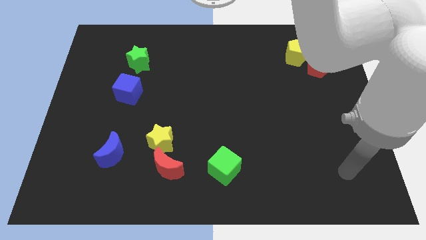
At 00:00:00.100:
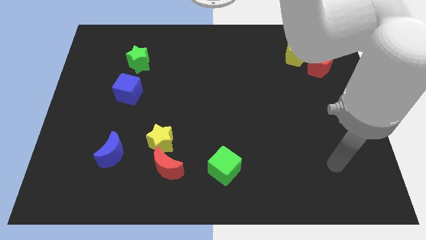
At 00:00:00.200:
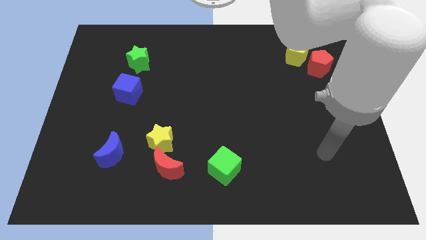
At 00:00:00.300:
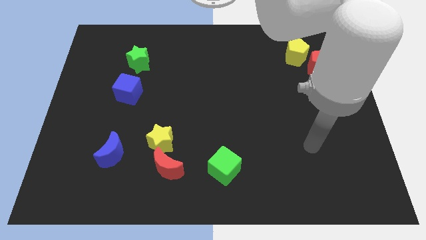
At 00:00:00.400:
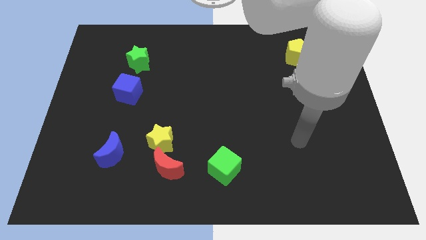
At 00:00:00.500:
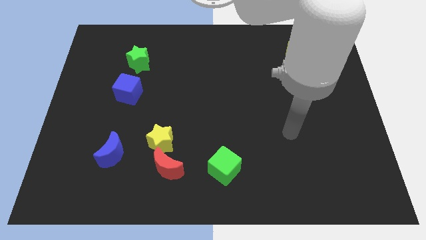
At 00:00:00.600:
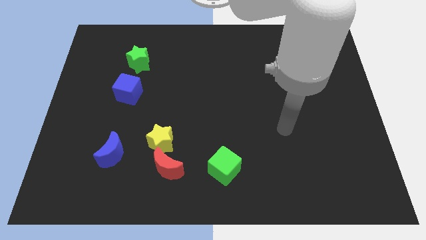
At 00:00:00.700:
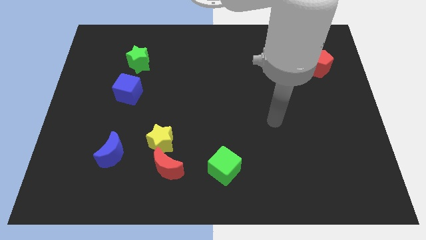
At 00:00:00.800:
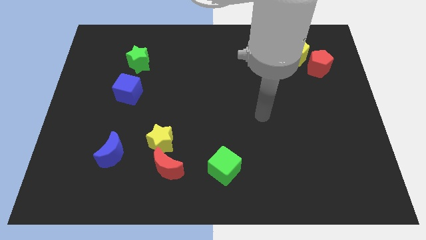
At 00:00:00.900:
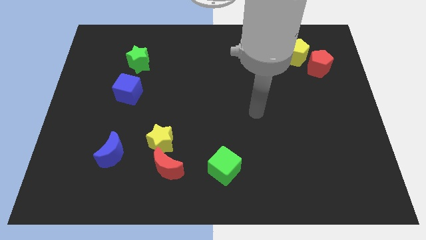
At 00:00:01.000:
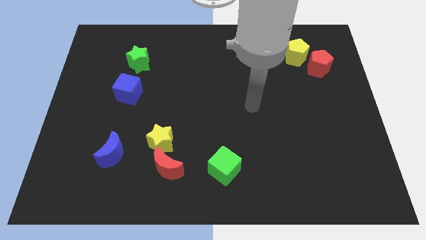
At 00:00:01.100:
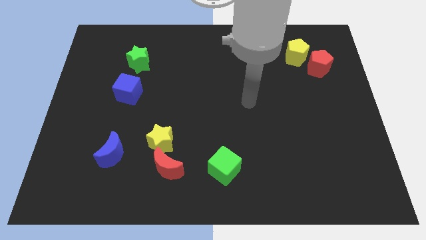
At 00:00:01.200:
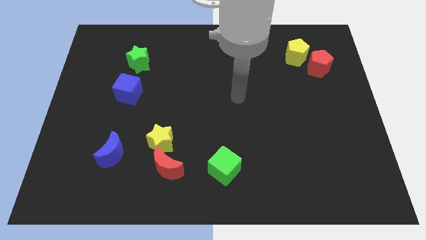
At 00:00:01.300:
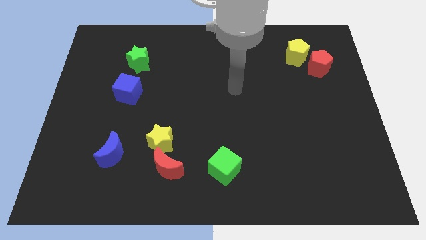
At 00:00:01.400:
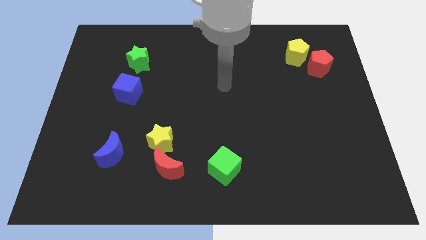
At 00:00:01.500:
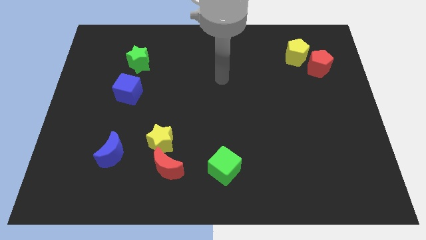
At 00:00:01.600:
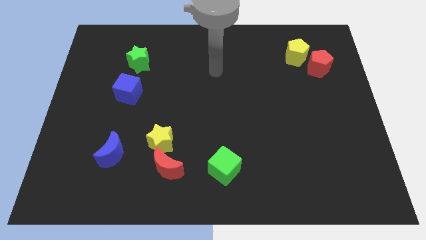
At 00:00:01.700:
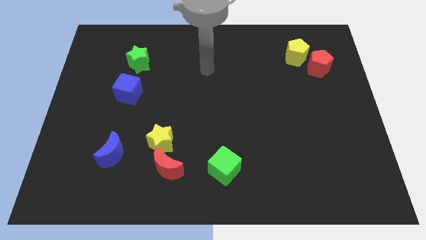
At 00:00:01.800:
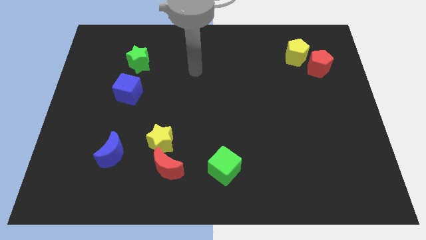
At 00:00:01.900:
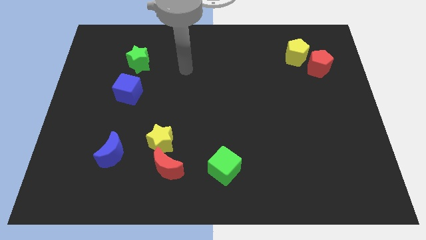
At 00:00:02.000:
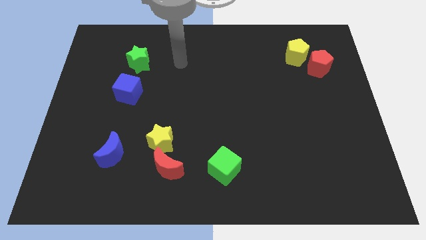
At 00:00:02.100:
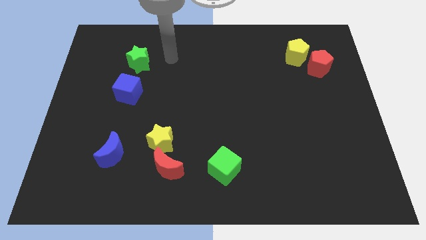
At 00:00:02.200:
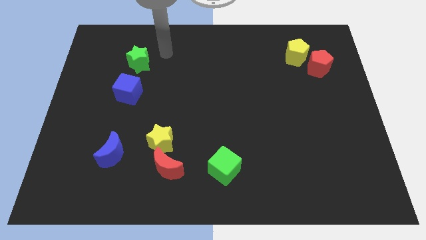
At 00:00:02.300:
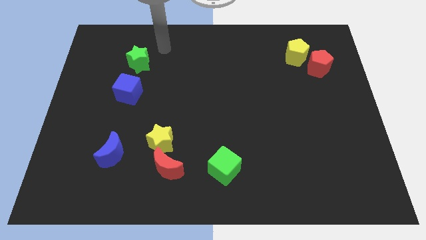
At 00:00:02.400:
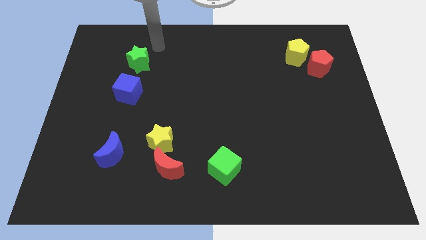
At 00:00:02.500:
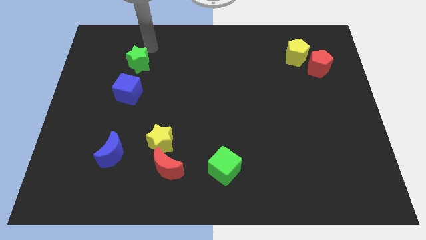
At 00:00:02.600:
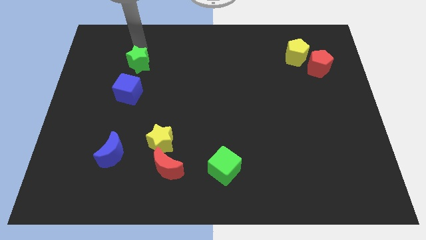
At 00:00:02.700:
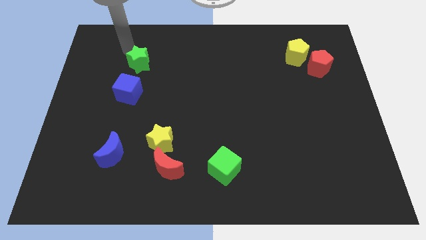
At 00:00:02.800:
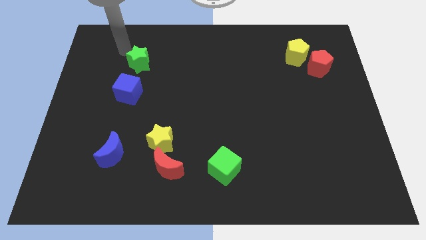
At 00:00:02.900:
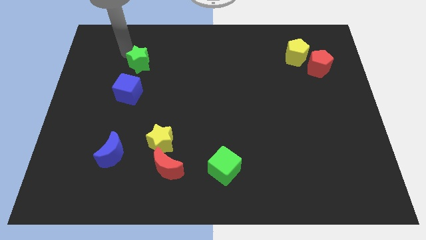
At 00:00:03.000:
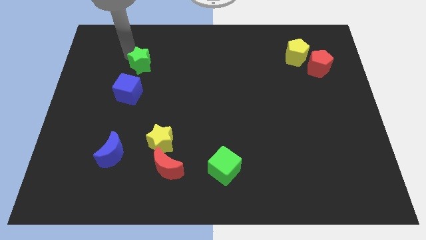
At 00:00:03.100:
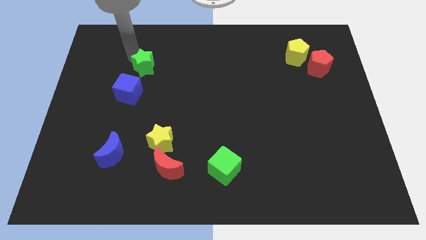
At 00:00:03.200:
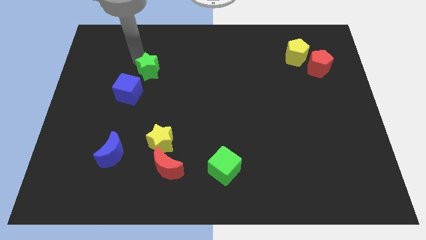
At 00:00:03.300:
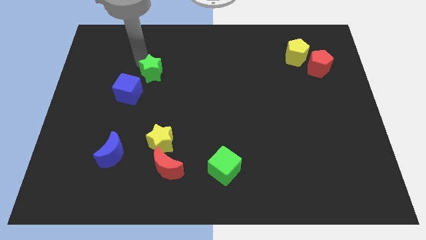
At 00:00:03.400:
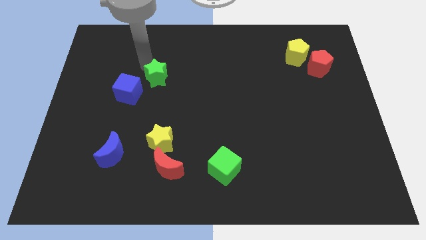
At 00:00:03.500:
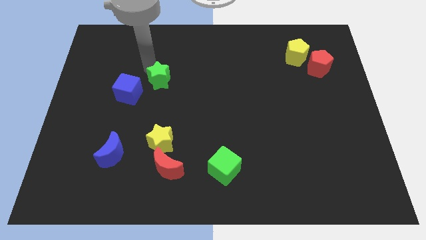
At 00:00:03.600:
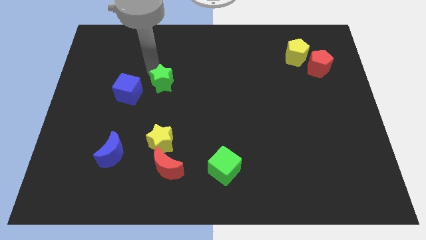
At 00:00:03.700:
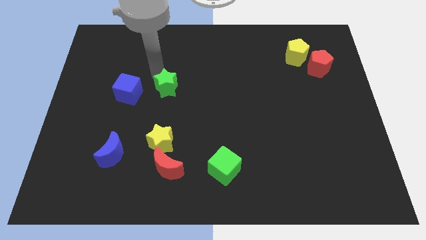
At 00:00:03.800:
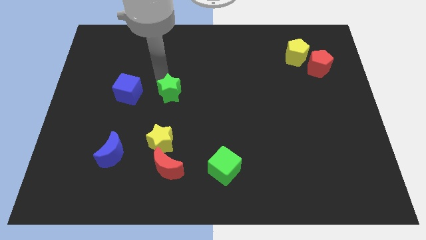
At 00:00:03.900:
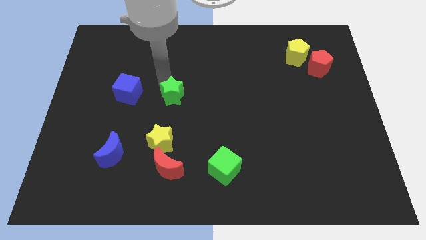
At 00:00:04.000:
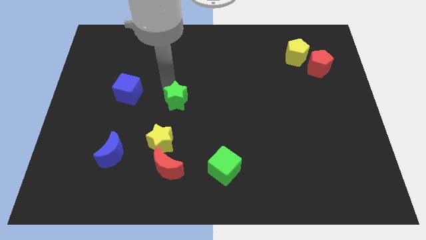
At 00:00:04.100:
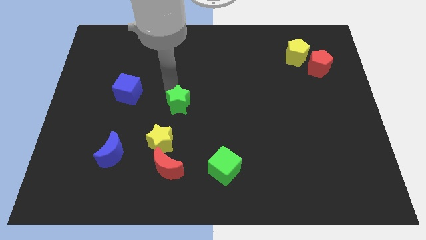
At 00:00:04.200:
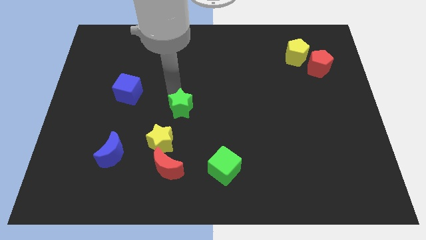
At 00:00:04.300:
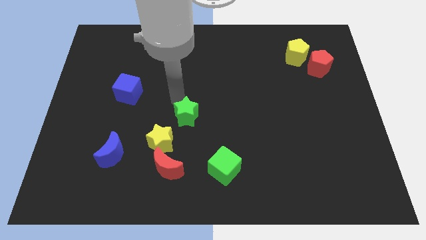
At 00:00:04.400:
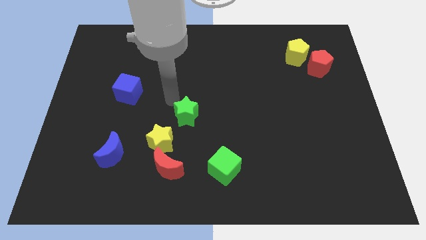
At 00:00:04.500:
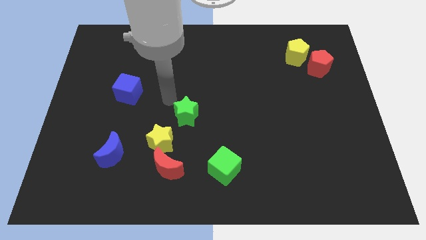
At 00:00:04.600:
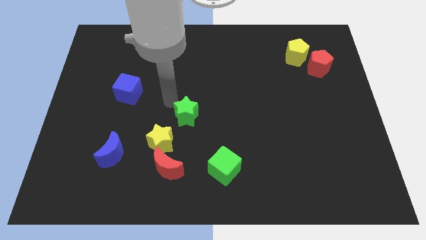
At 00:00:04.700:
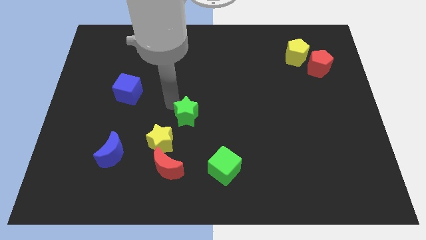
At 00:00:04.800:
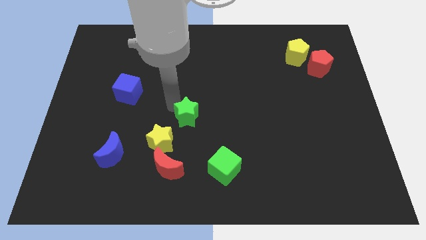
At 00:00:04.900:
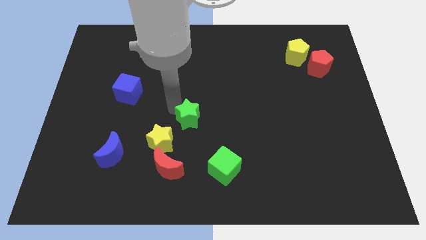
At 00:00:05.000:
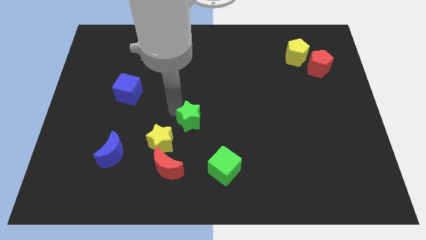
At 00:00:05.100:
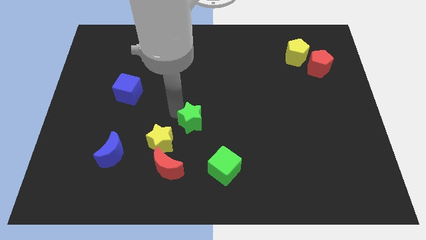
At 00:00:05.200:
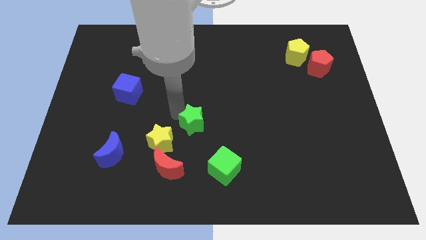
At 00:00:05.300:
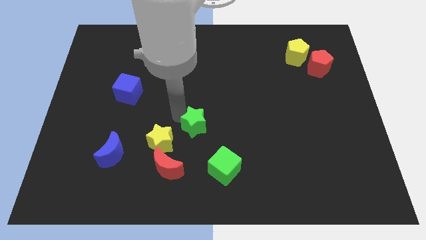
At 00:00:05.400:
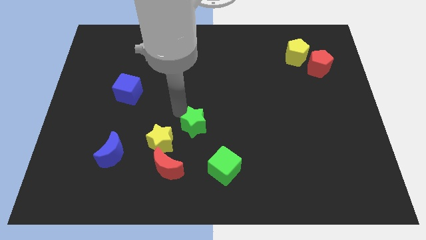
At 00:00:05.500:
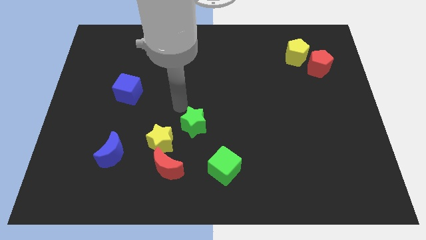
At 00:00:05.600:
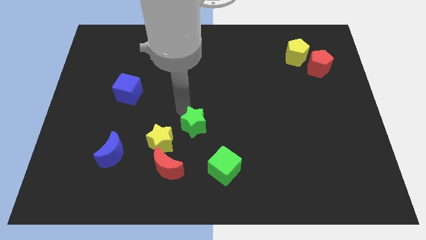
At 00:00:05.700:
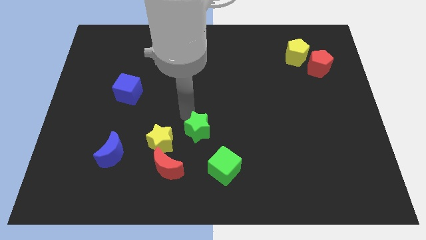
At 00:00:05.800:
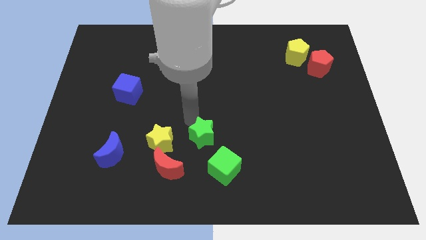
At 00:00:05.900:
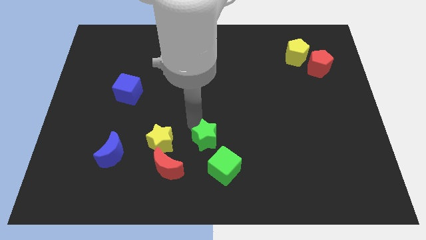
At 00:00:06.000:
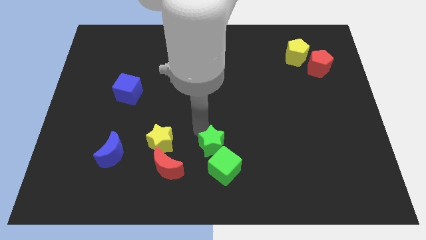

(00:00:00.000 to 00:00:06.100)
push the green star to the green cube

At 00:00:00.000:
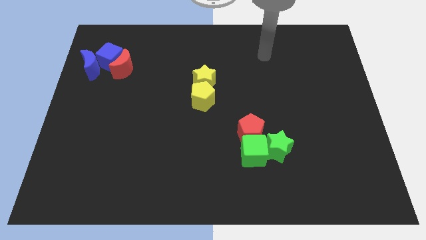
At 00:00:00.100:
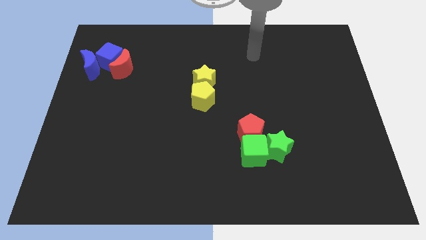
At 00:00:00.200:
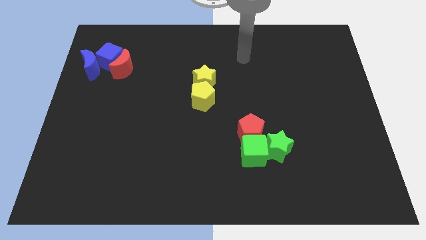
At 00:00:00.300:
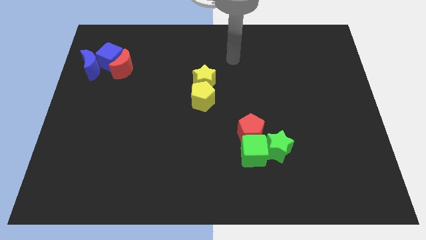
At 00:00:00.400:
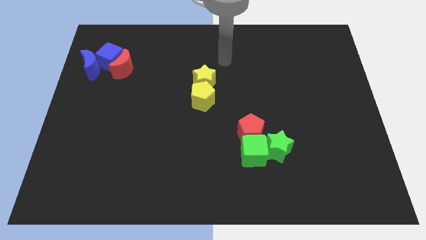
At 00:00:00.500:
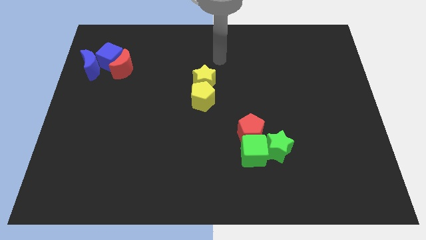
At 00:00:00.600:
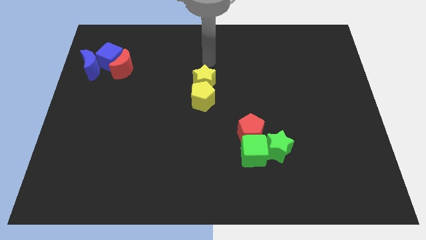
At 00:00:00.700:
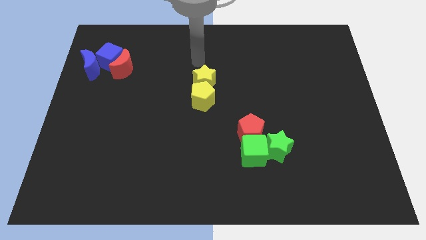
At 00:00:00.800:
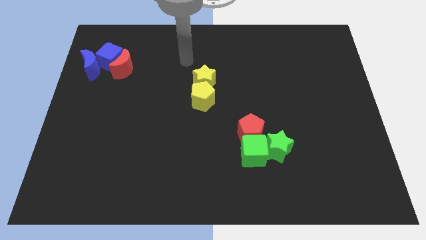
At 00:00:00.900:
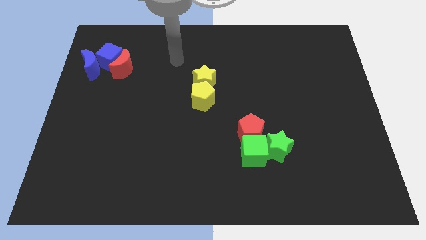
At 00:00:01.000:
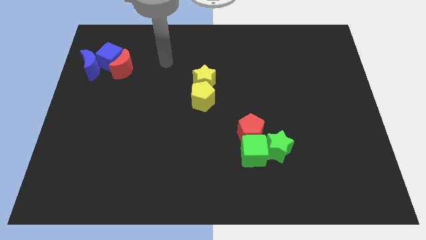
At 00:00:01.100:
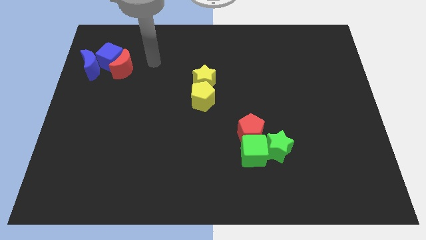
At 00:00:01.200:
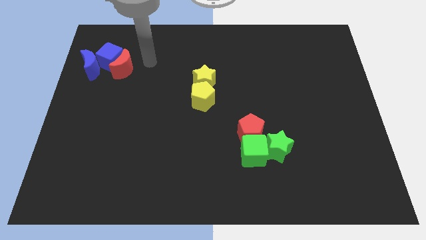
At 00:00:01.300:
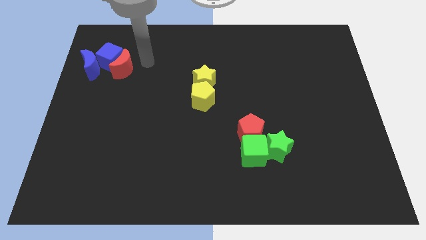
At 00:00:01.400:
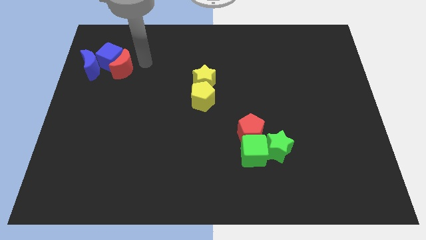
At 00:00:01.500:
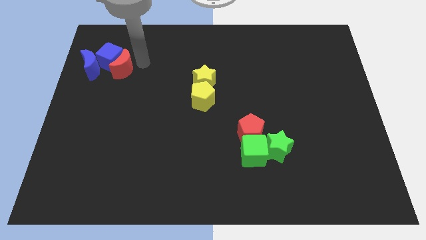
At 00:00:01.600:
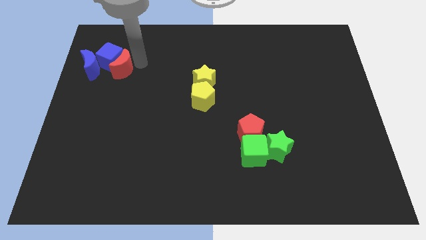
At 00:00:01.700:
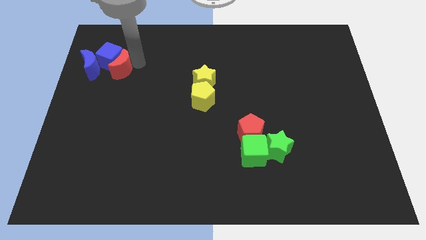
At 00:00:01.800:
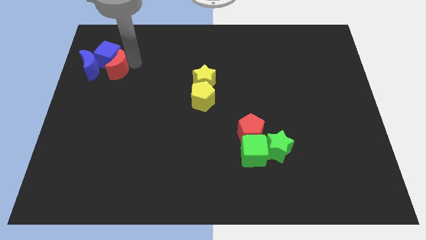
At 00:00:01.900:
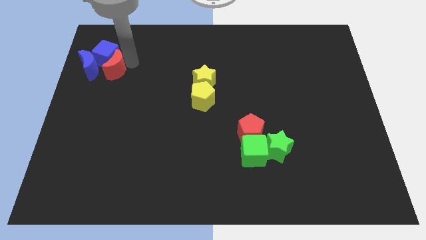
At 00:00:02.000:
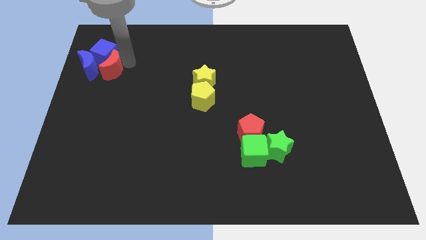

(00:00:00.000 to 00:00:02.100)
put the red moon next to the blue moon
